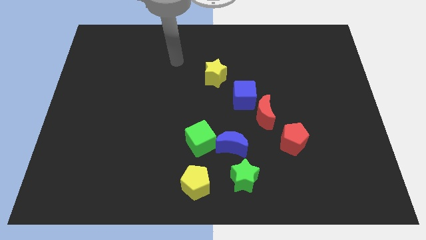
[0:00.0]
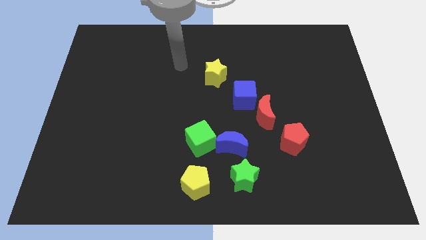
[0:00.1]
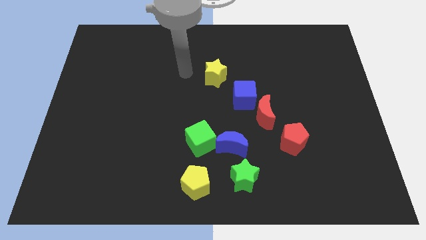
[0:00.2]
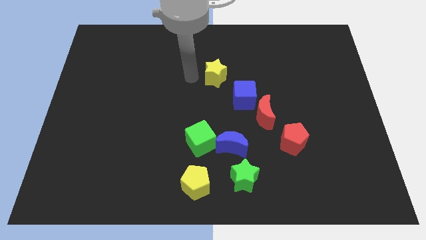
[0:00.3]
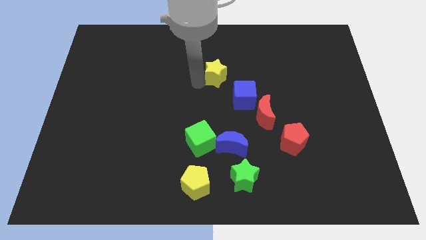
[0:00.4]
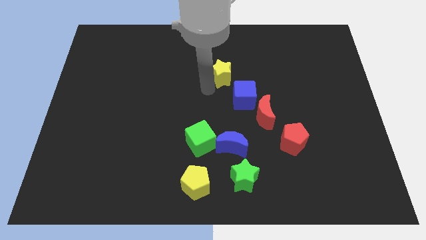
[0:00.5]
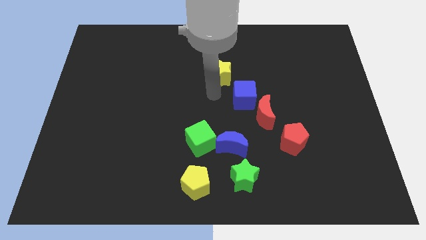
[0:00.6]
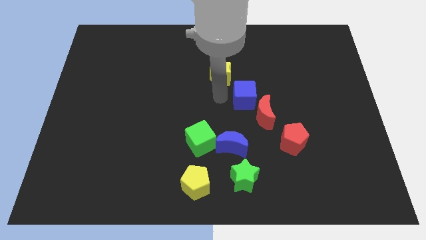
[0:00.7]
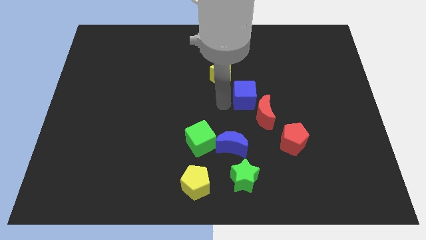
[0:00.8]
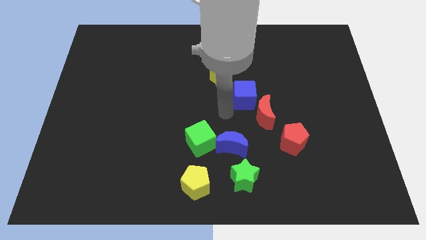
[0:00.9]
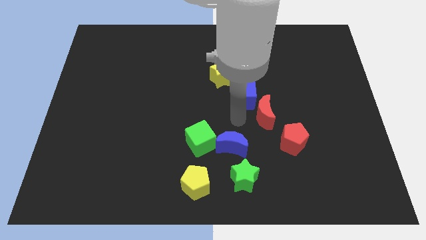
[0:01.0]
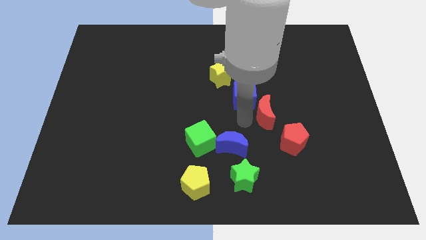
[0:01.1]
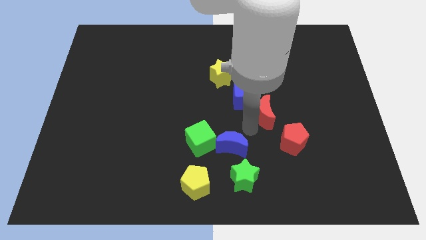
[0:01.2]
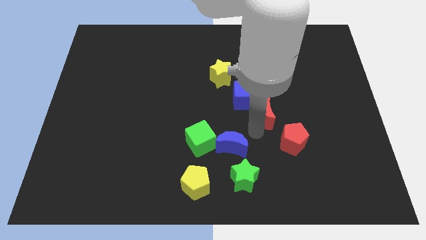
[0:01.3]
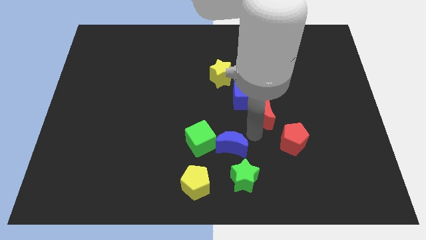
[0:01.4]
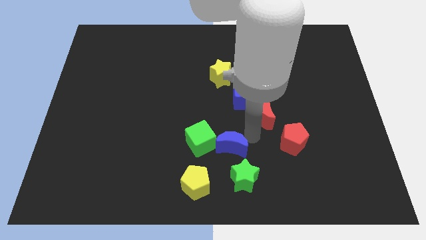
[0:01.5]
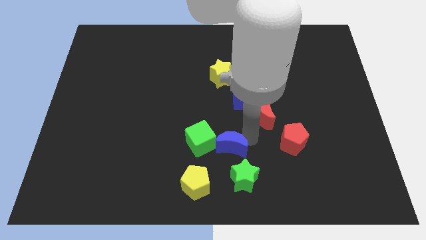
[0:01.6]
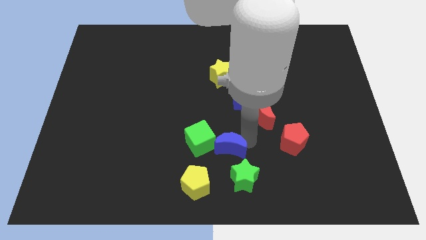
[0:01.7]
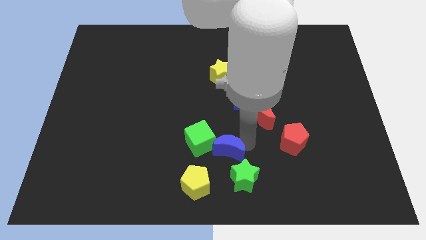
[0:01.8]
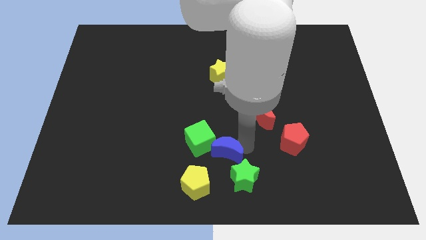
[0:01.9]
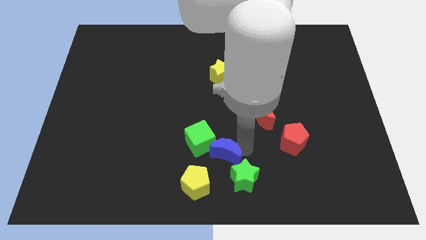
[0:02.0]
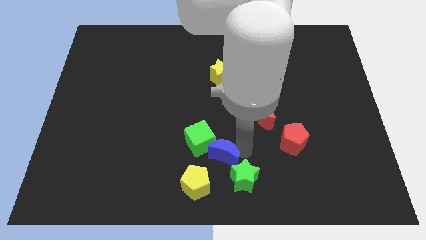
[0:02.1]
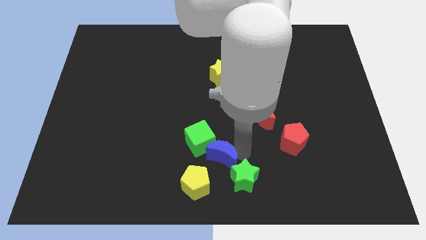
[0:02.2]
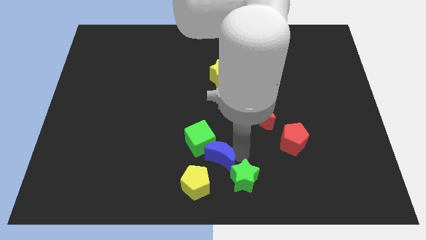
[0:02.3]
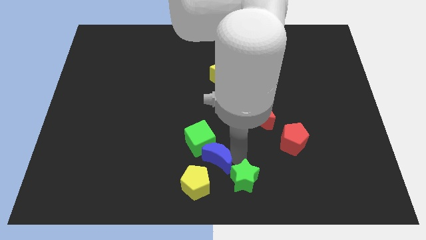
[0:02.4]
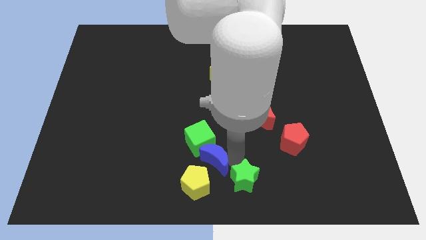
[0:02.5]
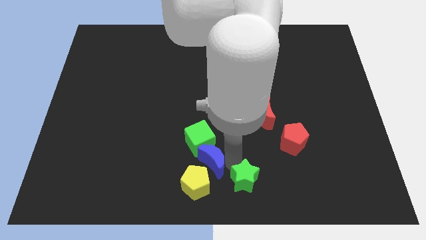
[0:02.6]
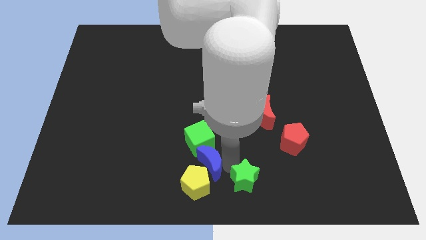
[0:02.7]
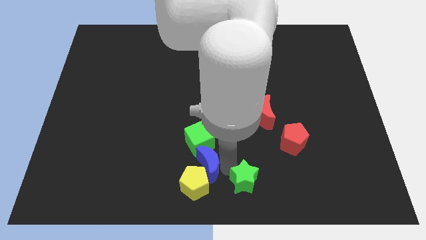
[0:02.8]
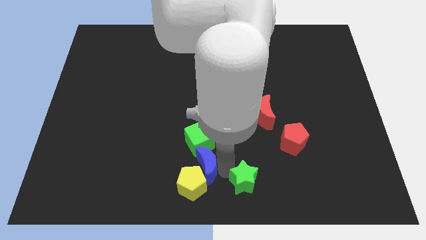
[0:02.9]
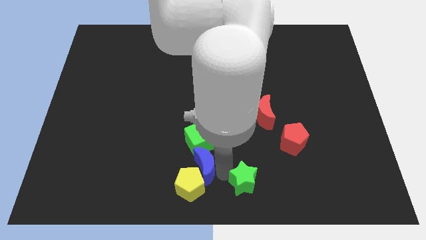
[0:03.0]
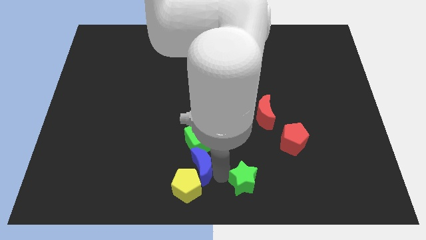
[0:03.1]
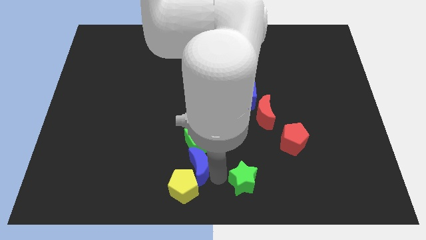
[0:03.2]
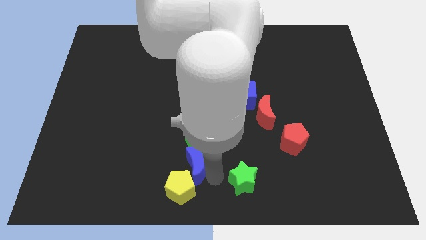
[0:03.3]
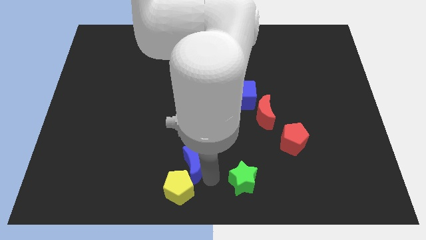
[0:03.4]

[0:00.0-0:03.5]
slightly move the blue moon to the left

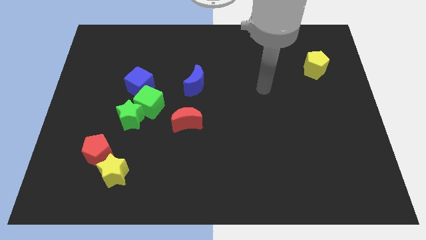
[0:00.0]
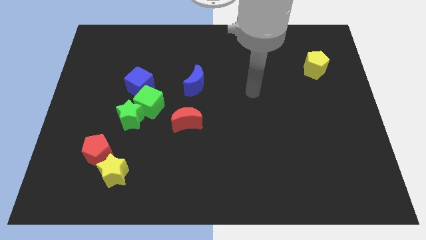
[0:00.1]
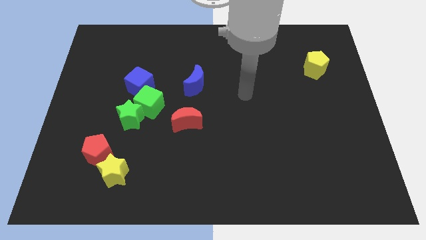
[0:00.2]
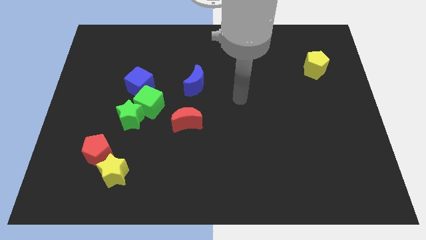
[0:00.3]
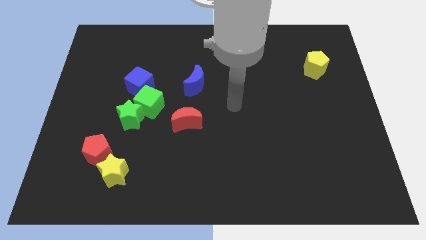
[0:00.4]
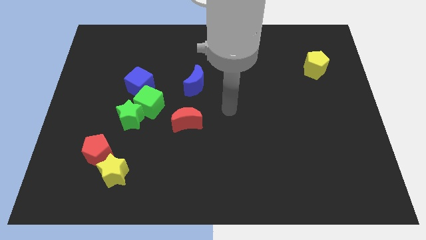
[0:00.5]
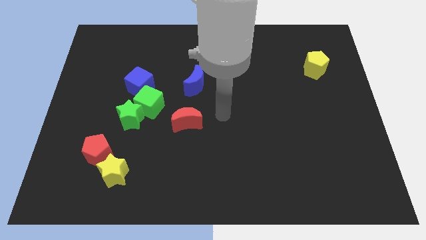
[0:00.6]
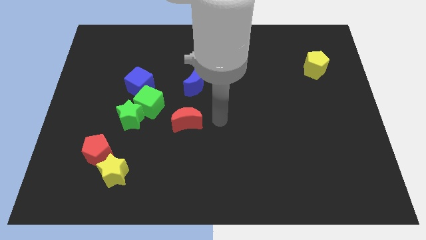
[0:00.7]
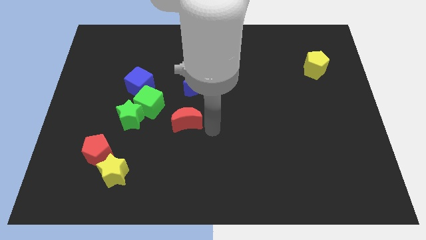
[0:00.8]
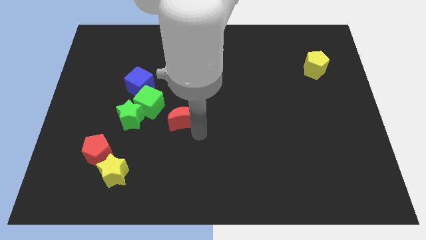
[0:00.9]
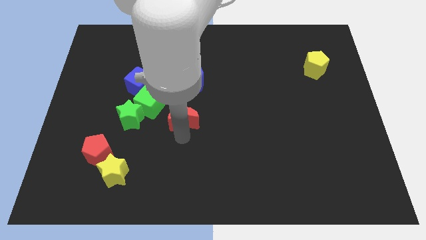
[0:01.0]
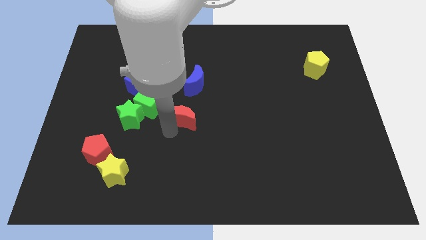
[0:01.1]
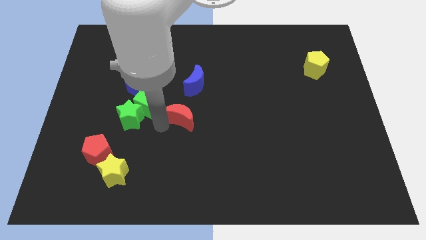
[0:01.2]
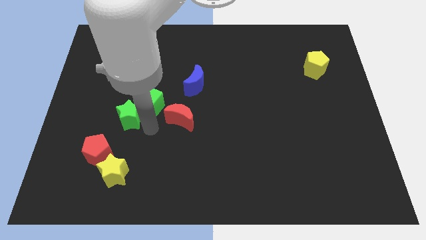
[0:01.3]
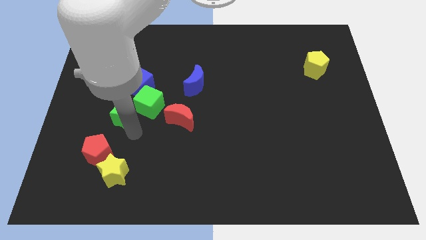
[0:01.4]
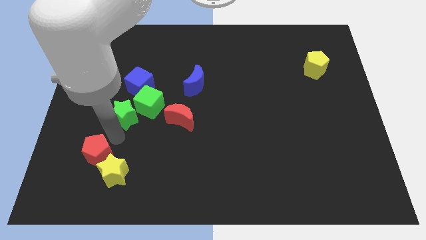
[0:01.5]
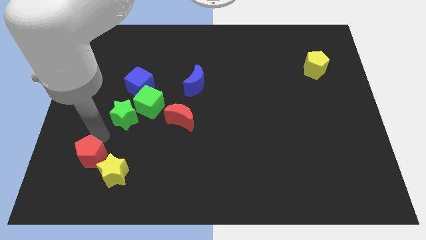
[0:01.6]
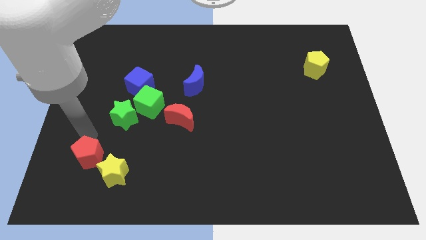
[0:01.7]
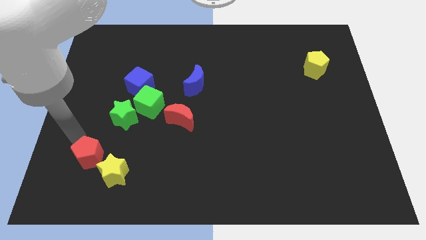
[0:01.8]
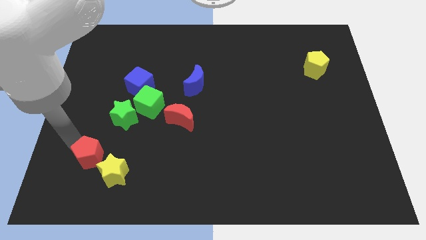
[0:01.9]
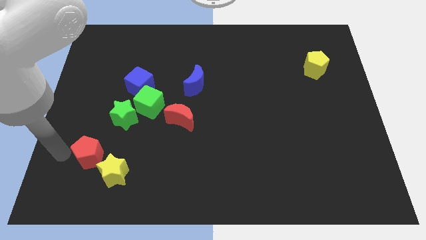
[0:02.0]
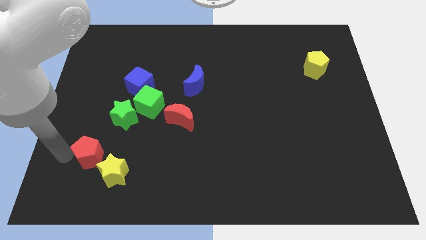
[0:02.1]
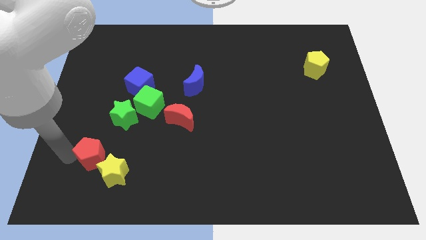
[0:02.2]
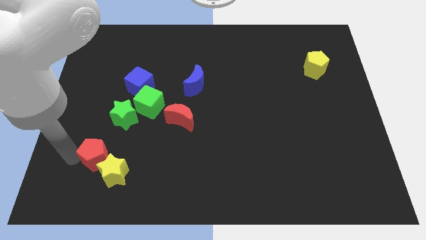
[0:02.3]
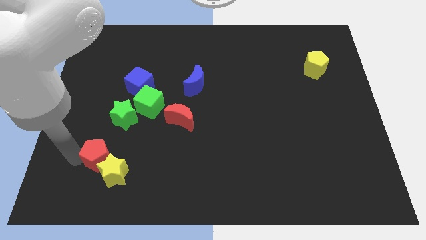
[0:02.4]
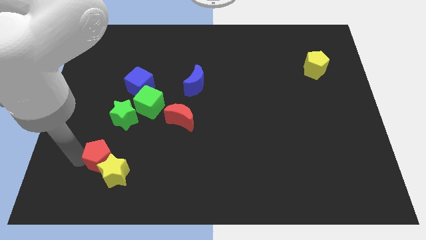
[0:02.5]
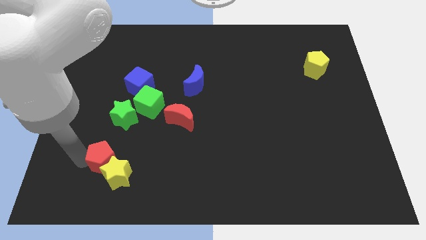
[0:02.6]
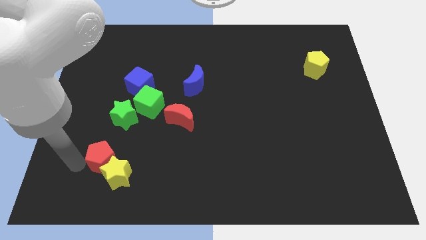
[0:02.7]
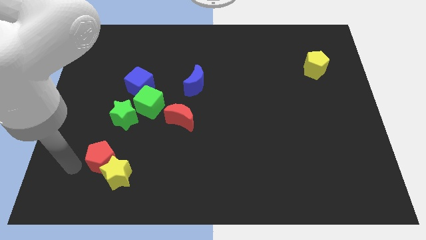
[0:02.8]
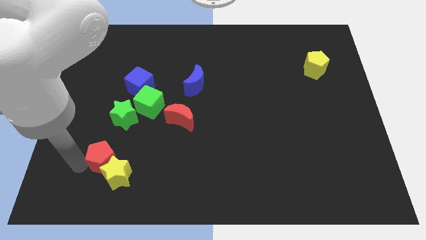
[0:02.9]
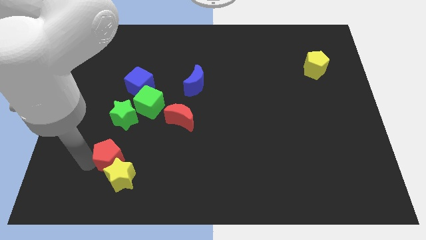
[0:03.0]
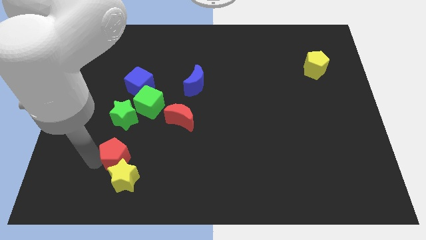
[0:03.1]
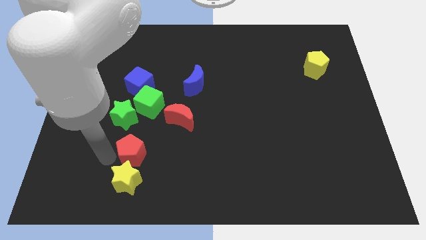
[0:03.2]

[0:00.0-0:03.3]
push the red pentagon somewhat right

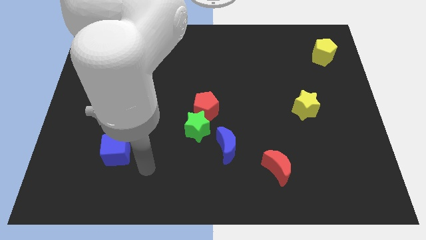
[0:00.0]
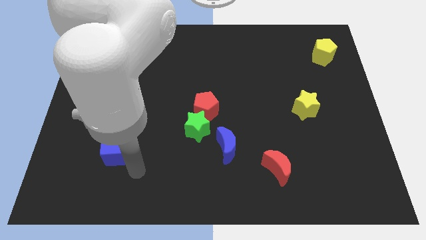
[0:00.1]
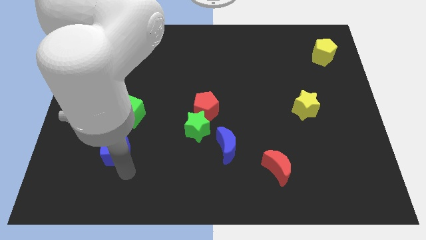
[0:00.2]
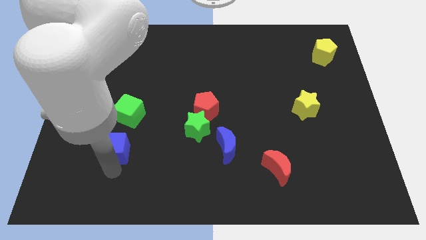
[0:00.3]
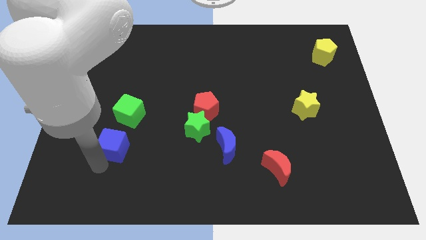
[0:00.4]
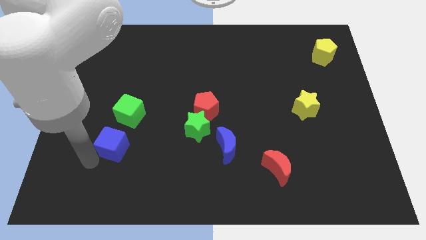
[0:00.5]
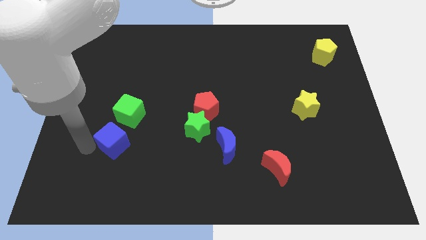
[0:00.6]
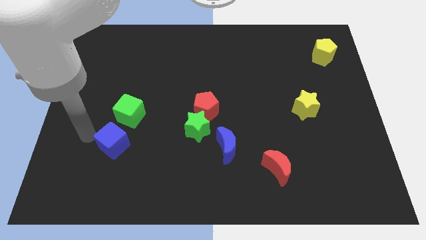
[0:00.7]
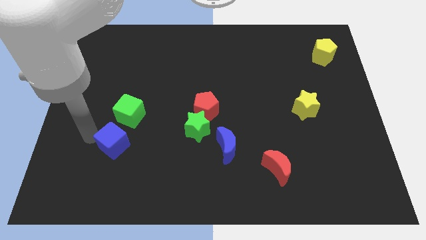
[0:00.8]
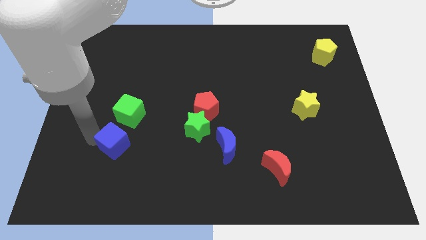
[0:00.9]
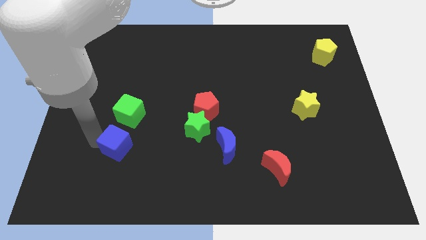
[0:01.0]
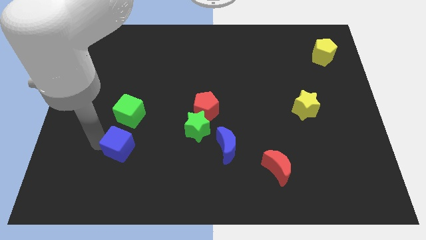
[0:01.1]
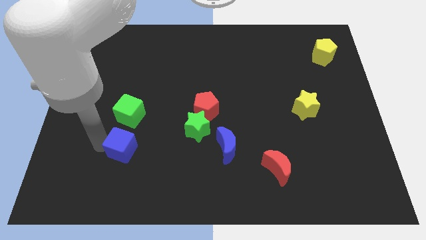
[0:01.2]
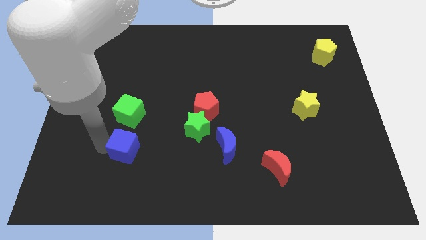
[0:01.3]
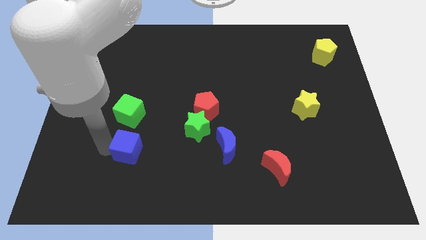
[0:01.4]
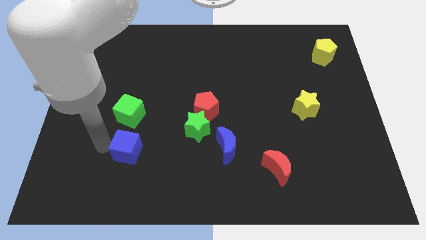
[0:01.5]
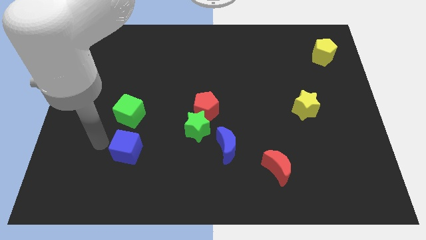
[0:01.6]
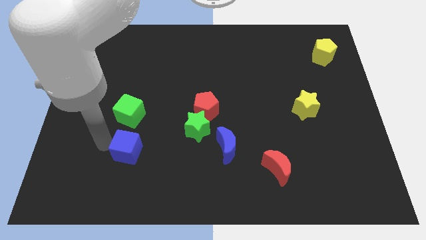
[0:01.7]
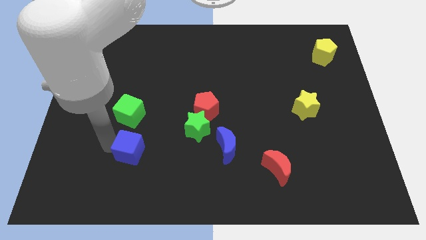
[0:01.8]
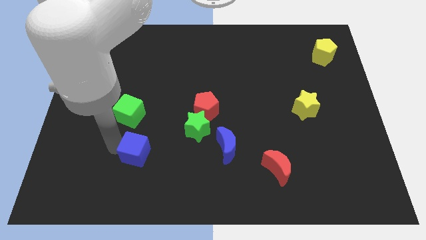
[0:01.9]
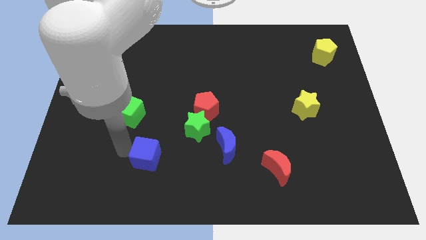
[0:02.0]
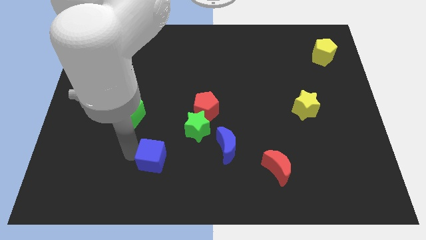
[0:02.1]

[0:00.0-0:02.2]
slightly slide the blue cube to the right
